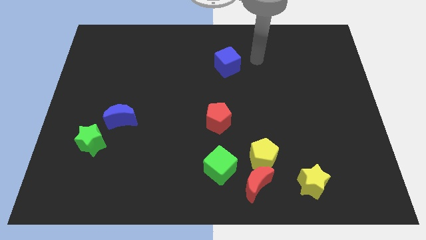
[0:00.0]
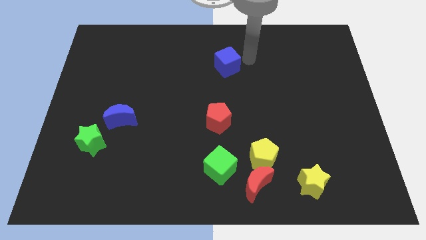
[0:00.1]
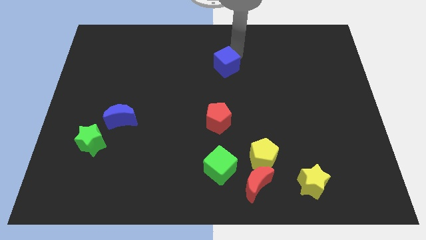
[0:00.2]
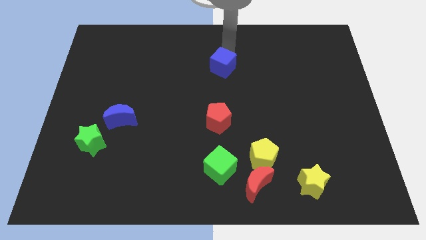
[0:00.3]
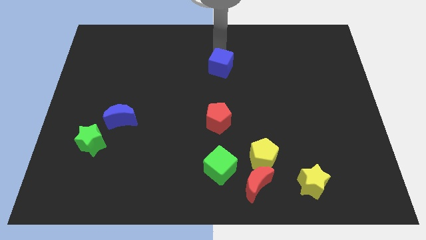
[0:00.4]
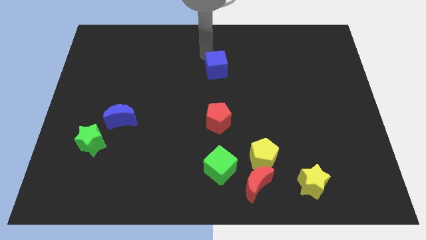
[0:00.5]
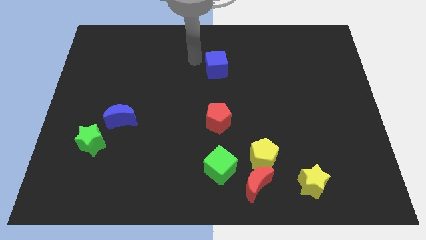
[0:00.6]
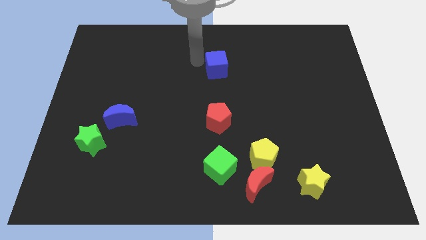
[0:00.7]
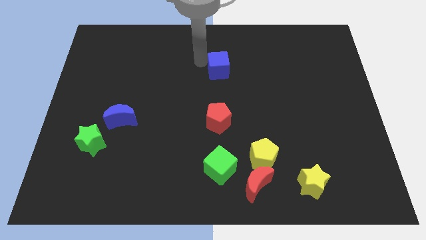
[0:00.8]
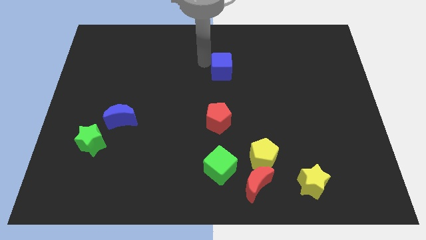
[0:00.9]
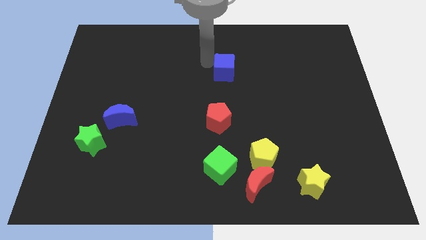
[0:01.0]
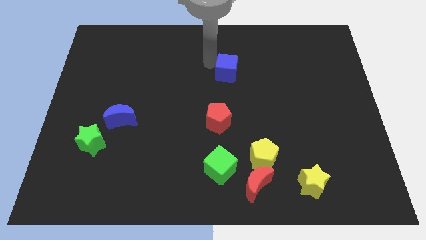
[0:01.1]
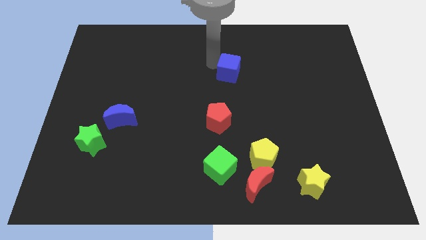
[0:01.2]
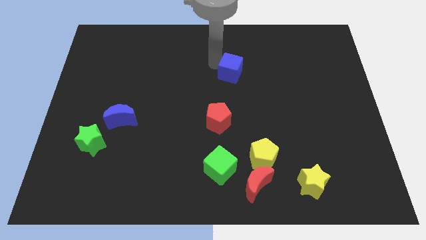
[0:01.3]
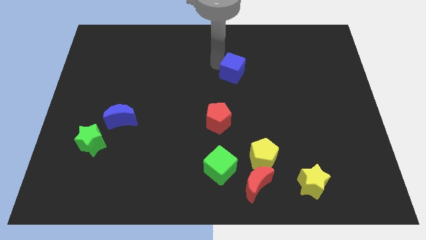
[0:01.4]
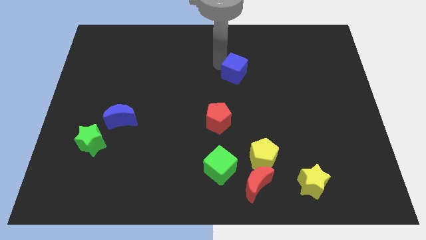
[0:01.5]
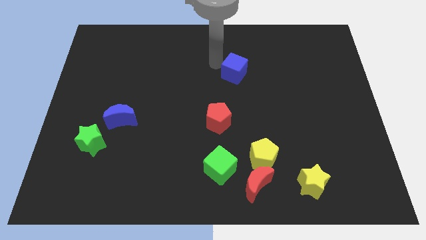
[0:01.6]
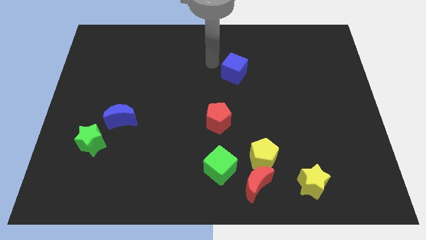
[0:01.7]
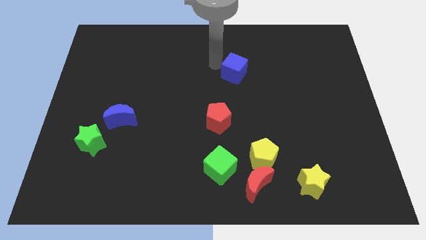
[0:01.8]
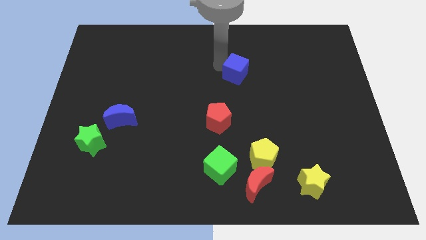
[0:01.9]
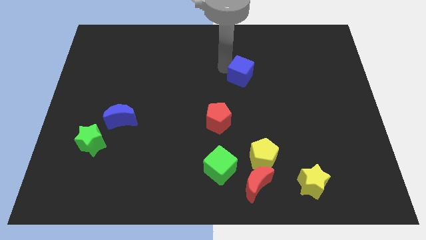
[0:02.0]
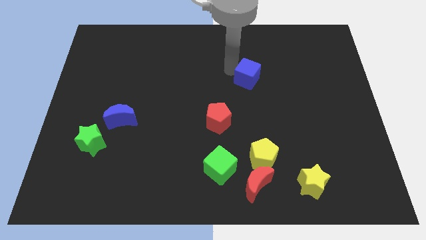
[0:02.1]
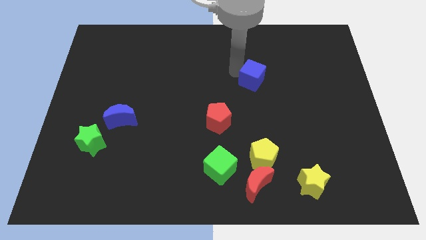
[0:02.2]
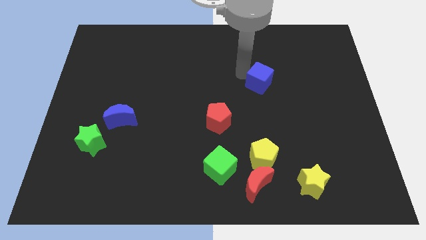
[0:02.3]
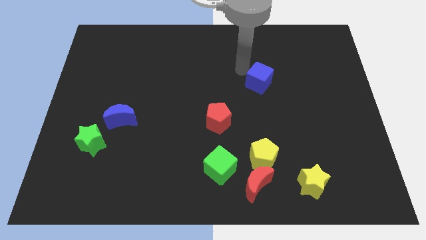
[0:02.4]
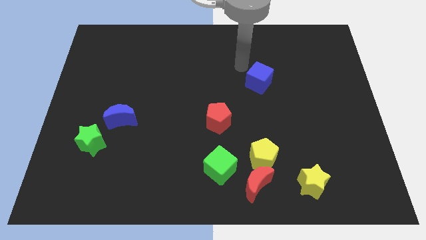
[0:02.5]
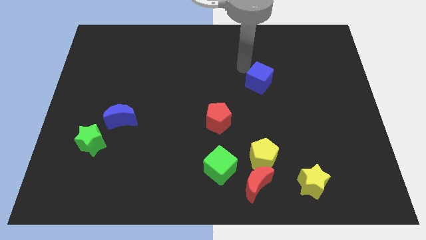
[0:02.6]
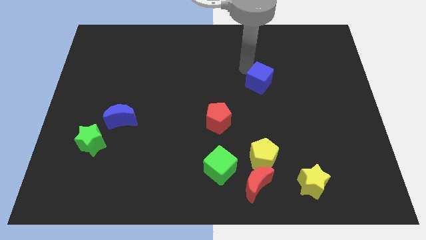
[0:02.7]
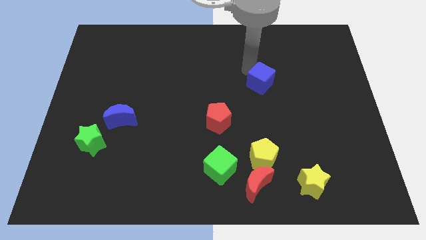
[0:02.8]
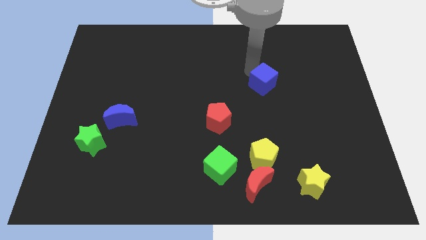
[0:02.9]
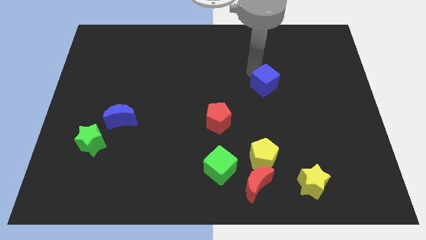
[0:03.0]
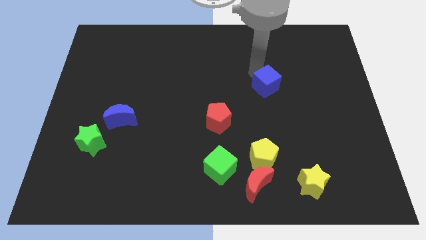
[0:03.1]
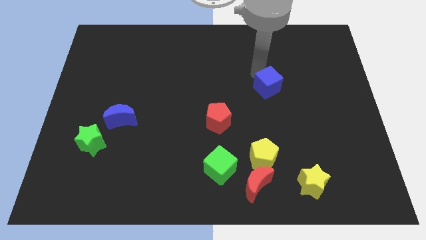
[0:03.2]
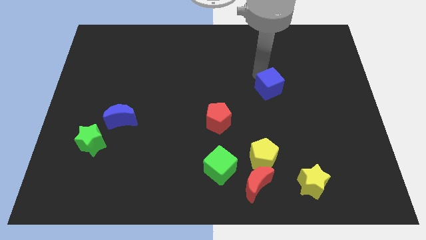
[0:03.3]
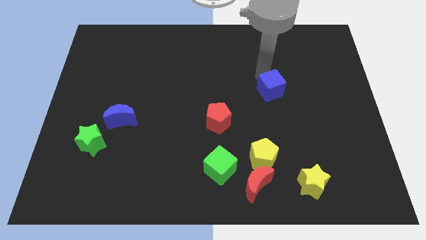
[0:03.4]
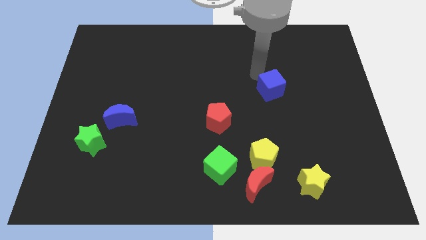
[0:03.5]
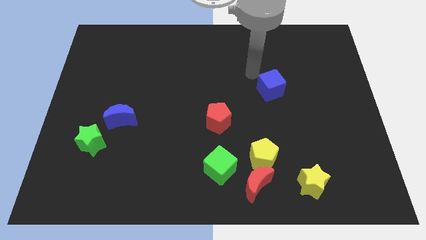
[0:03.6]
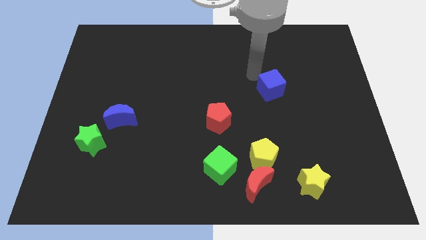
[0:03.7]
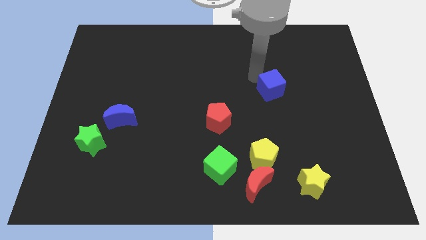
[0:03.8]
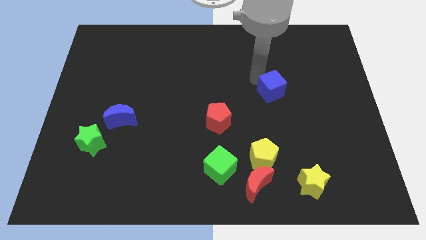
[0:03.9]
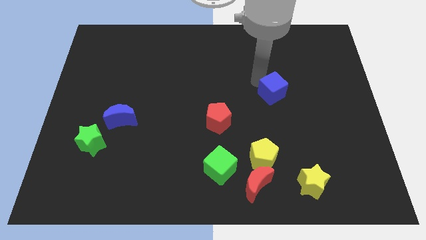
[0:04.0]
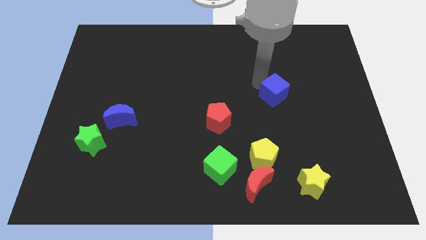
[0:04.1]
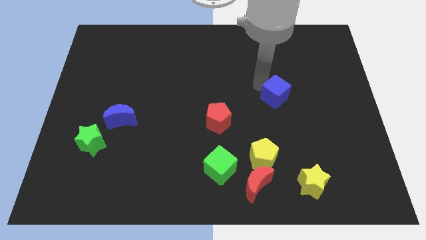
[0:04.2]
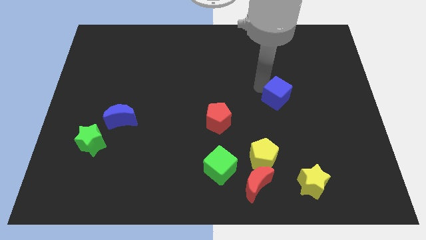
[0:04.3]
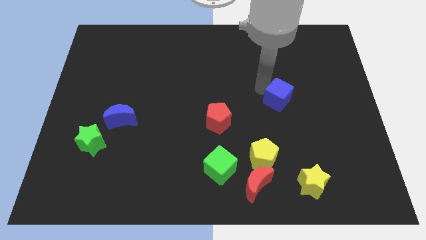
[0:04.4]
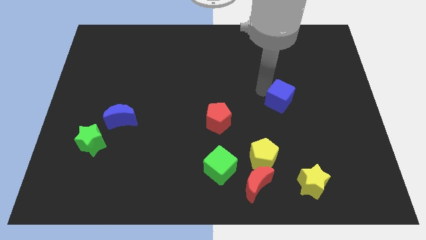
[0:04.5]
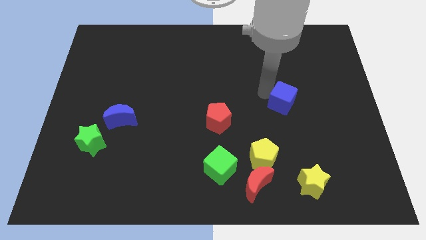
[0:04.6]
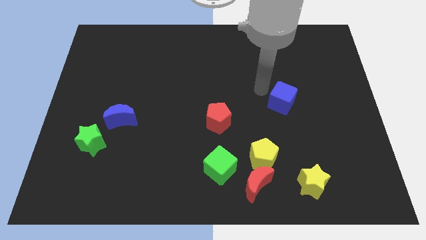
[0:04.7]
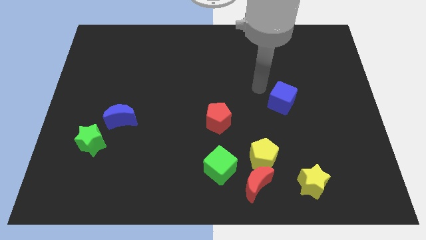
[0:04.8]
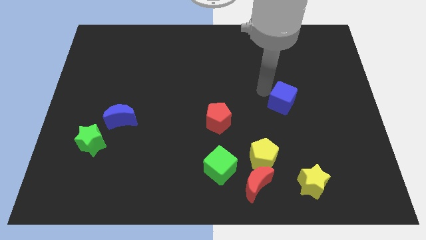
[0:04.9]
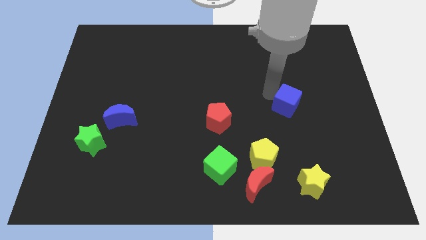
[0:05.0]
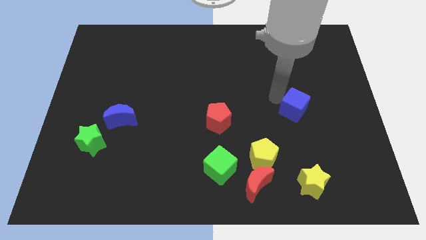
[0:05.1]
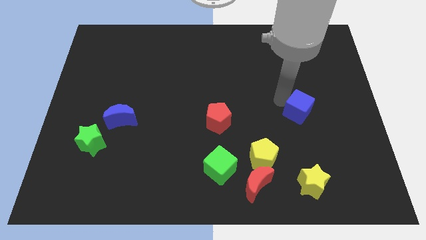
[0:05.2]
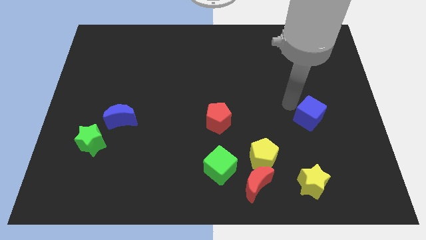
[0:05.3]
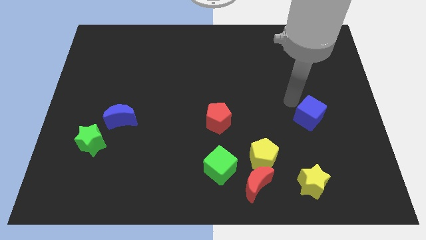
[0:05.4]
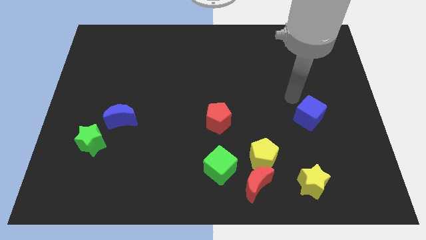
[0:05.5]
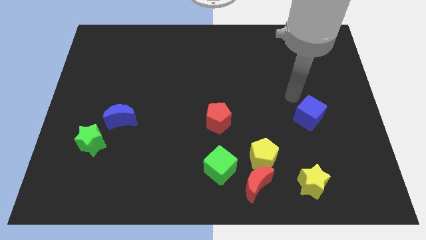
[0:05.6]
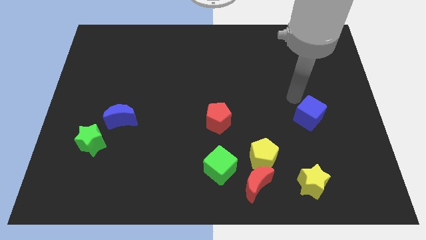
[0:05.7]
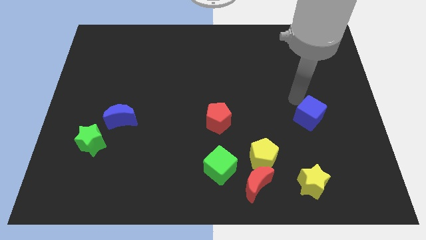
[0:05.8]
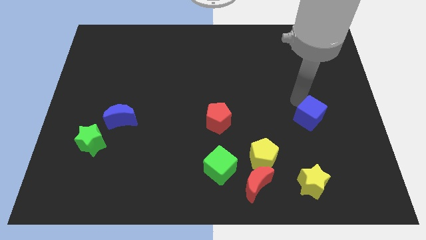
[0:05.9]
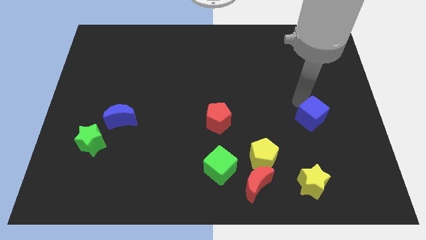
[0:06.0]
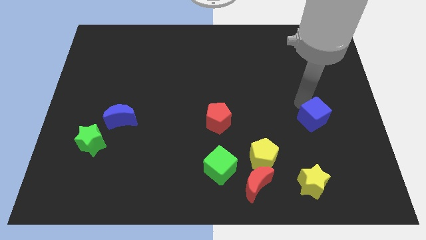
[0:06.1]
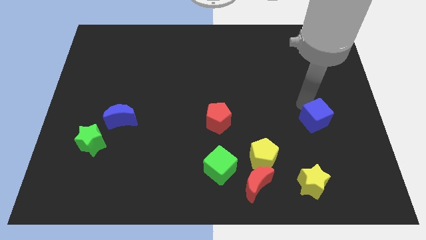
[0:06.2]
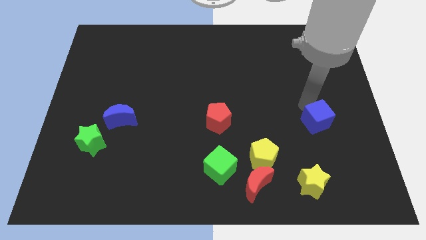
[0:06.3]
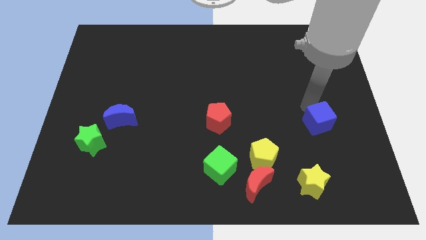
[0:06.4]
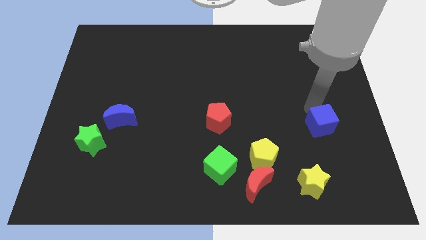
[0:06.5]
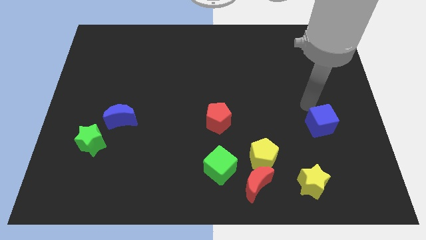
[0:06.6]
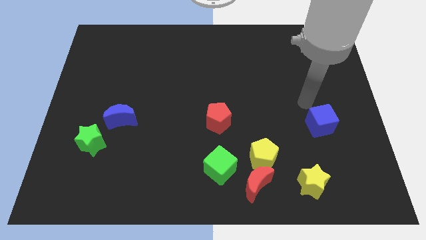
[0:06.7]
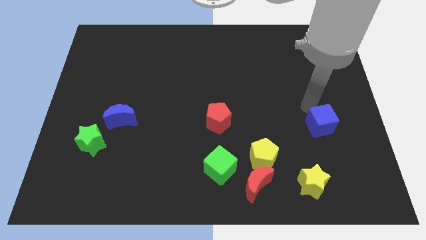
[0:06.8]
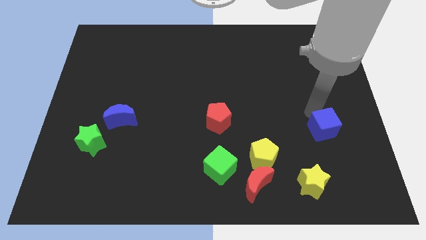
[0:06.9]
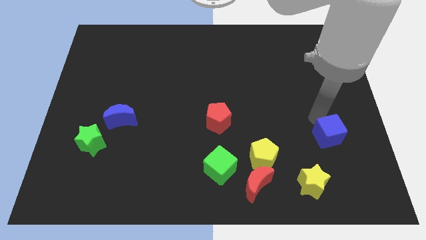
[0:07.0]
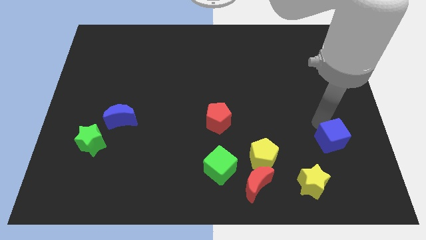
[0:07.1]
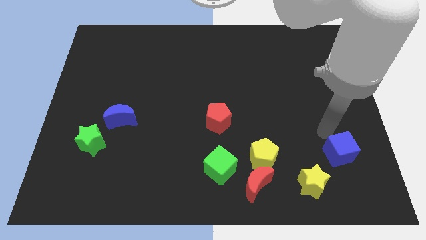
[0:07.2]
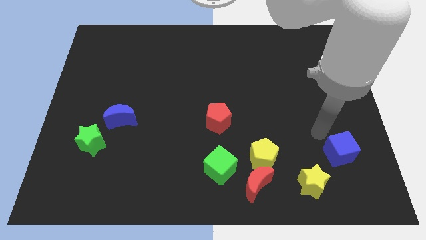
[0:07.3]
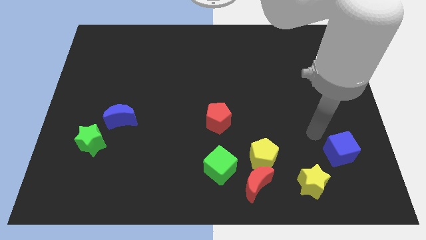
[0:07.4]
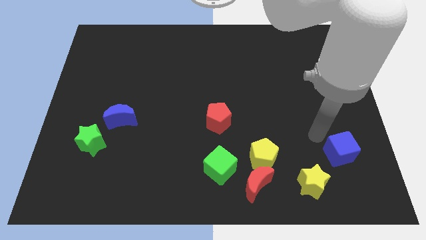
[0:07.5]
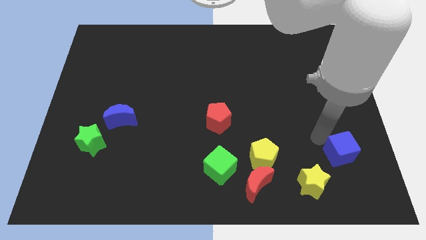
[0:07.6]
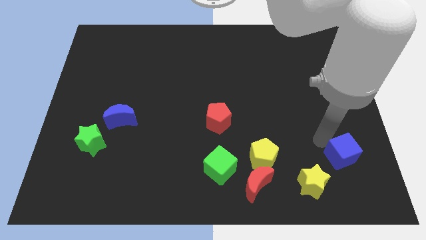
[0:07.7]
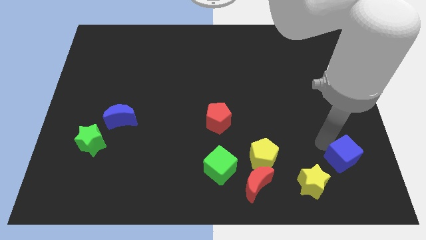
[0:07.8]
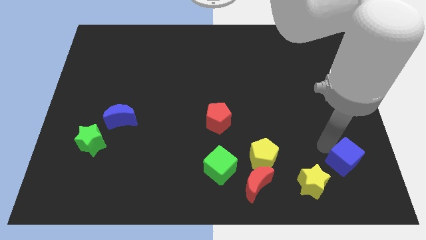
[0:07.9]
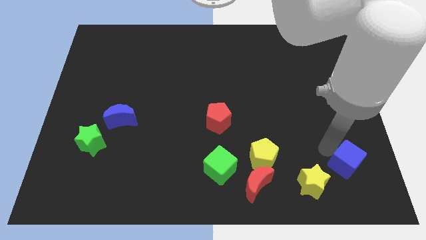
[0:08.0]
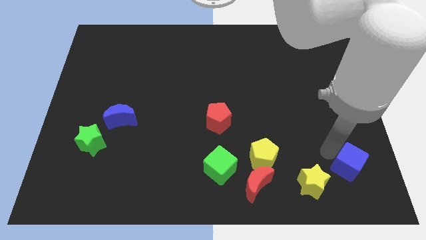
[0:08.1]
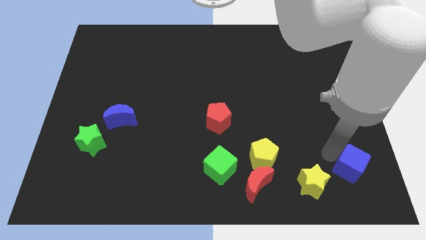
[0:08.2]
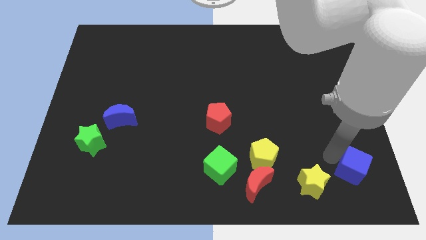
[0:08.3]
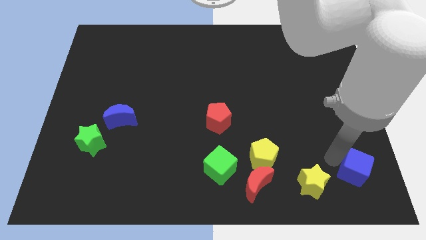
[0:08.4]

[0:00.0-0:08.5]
move the blue cube to the bottom right of the board
